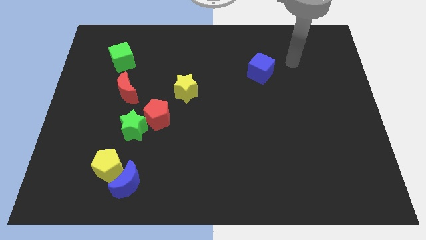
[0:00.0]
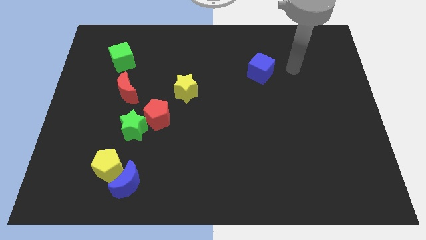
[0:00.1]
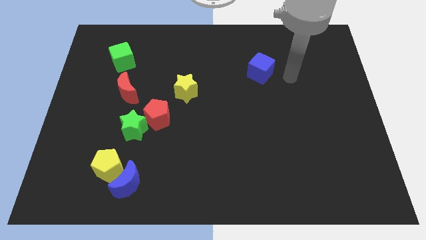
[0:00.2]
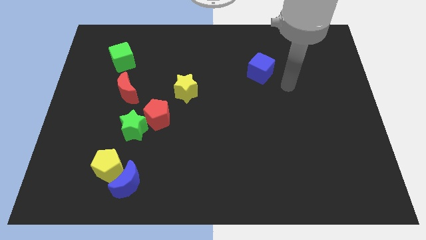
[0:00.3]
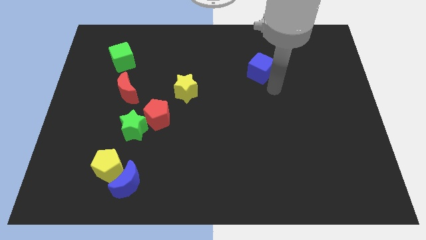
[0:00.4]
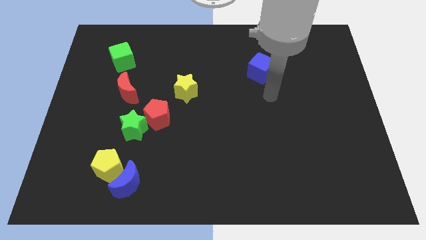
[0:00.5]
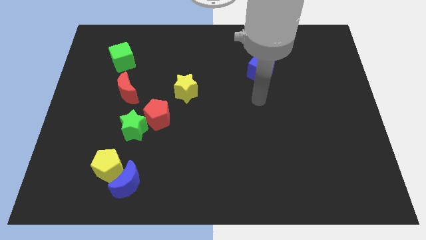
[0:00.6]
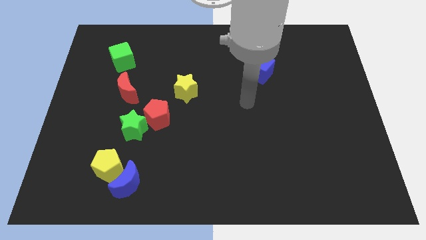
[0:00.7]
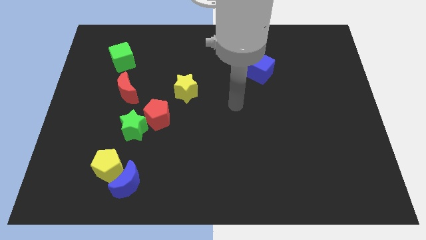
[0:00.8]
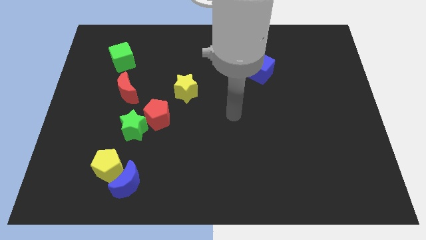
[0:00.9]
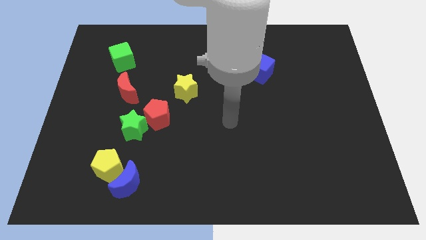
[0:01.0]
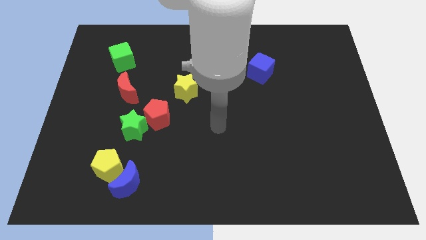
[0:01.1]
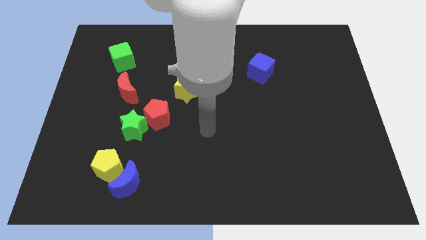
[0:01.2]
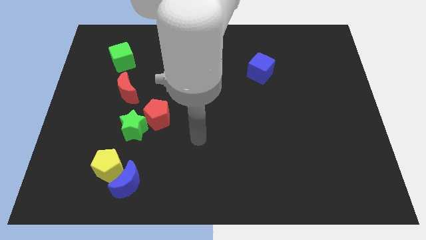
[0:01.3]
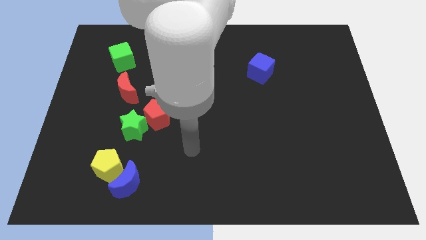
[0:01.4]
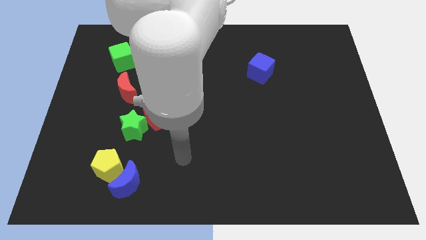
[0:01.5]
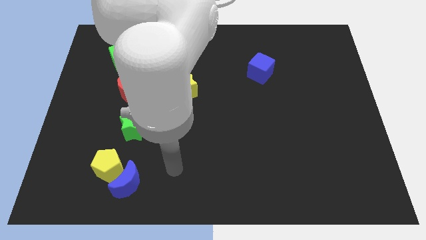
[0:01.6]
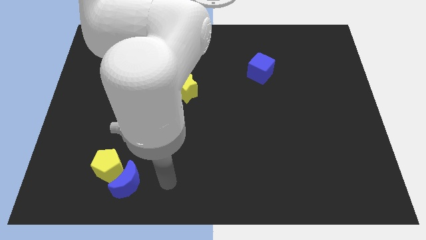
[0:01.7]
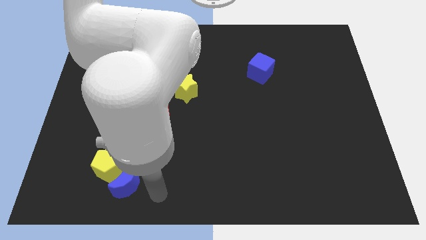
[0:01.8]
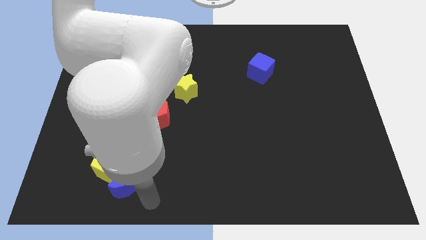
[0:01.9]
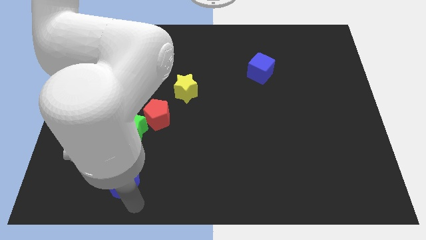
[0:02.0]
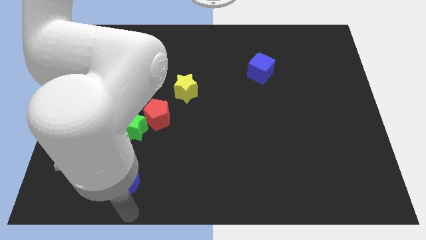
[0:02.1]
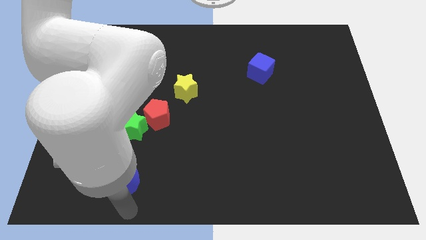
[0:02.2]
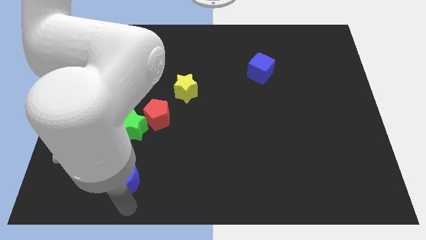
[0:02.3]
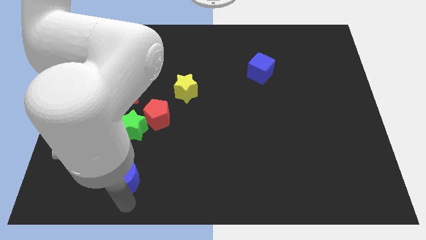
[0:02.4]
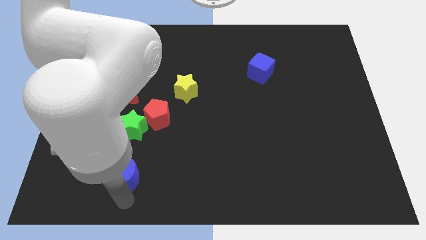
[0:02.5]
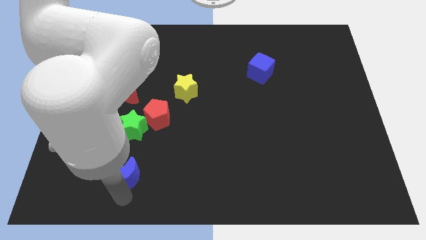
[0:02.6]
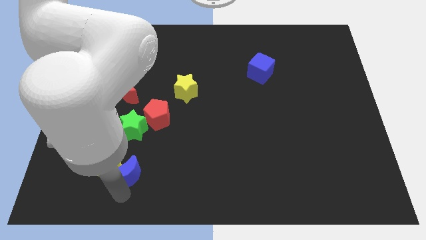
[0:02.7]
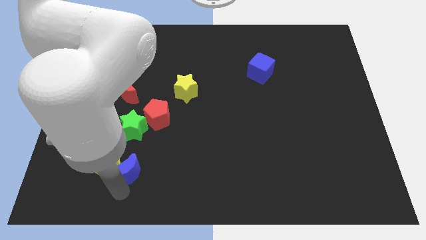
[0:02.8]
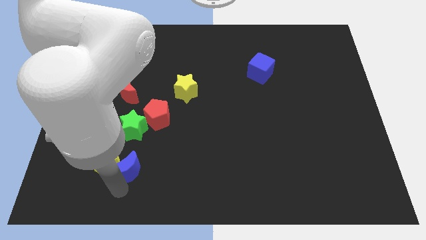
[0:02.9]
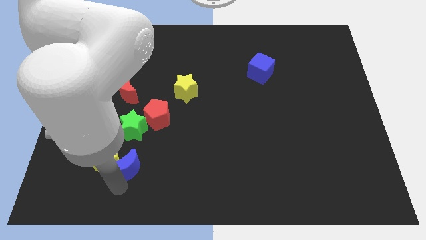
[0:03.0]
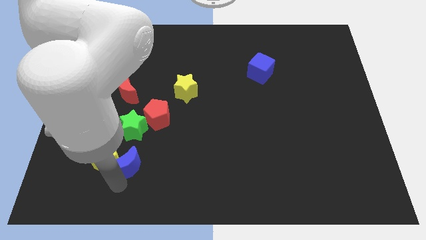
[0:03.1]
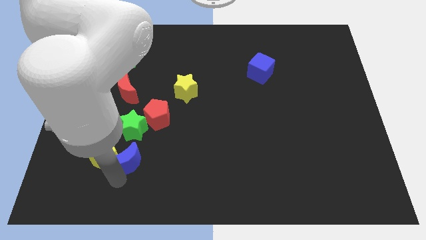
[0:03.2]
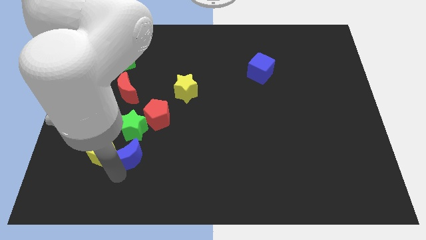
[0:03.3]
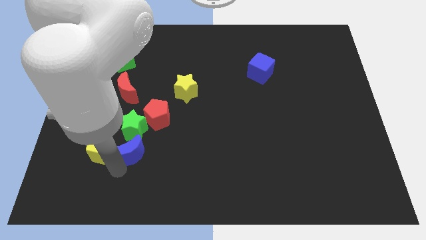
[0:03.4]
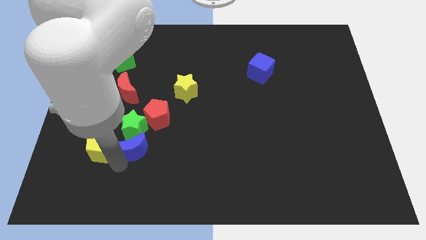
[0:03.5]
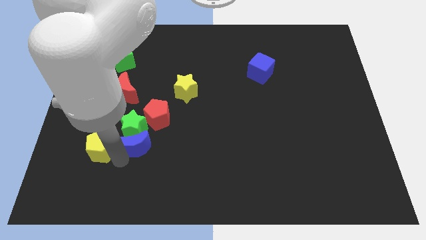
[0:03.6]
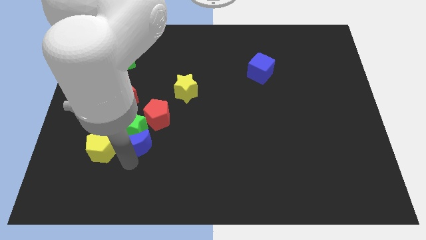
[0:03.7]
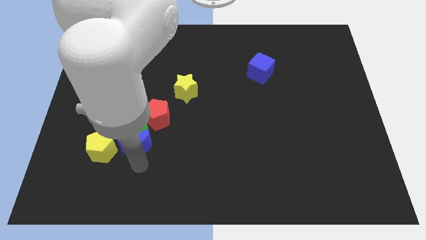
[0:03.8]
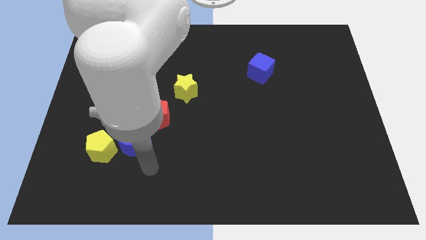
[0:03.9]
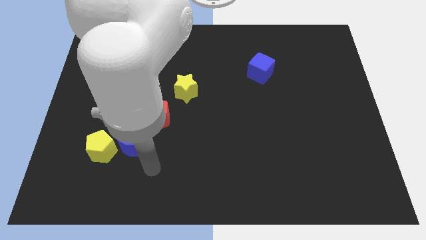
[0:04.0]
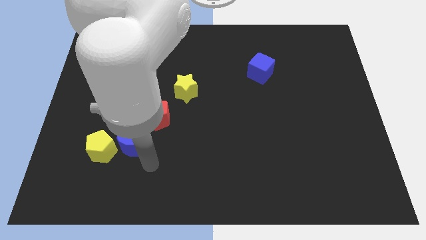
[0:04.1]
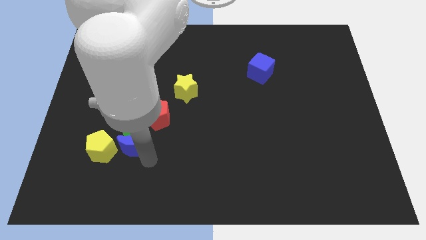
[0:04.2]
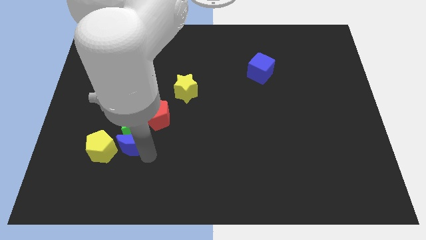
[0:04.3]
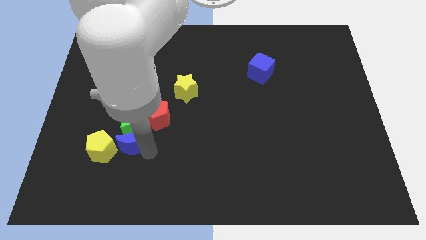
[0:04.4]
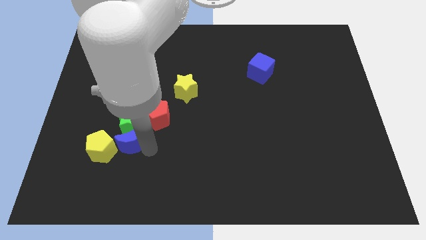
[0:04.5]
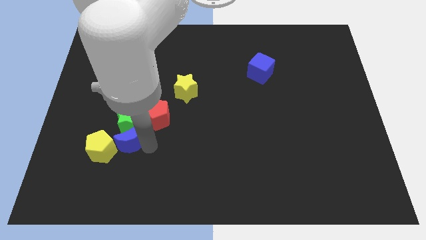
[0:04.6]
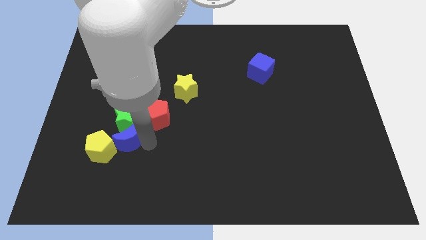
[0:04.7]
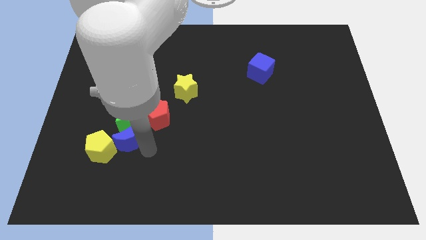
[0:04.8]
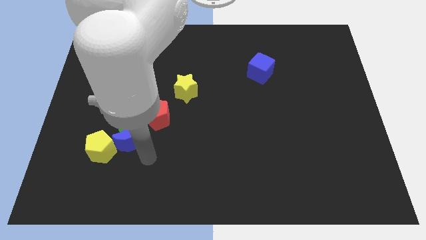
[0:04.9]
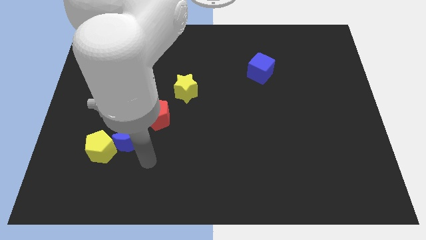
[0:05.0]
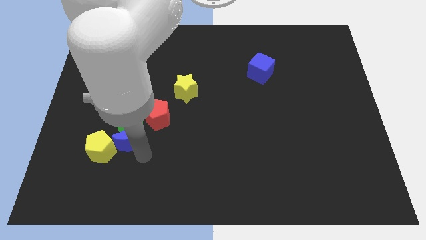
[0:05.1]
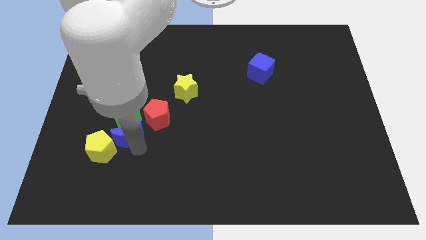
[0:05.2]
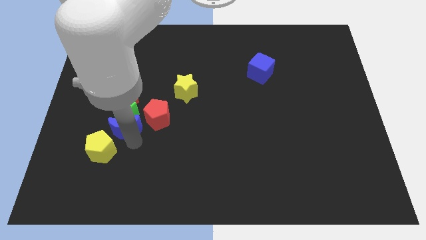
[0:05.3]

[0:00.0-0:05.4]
push the blue moon to the top of the yellow pentagon

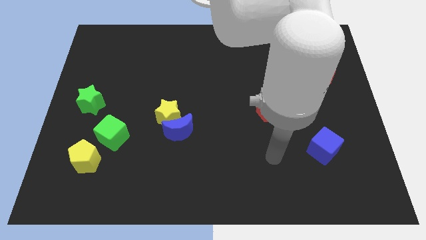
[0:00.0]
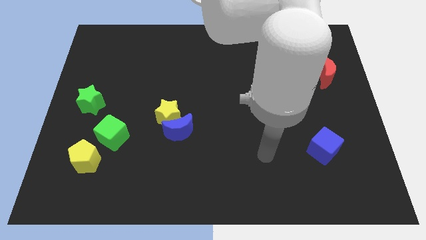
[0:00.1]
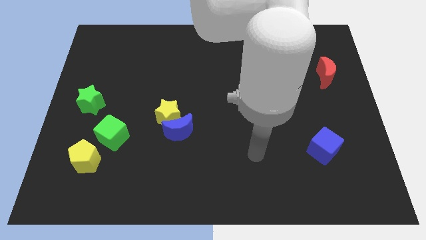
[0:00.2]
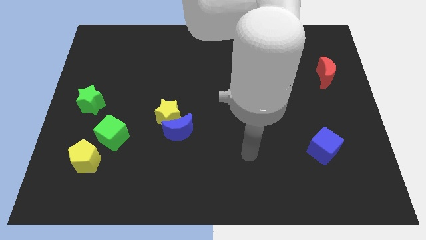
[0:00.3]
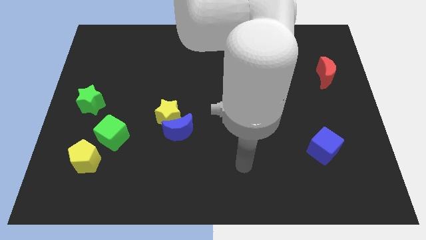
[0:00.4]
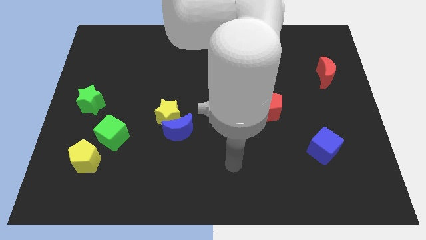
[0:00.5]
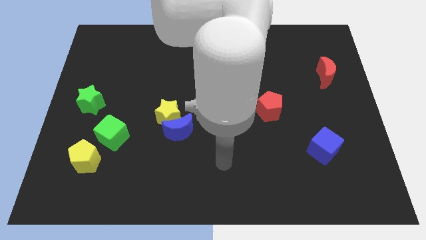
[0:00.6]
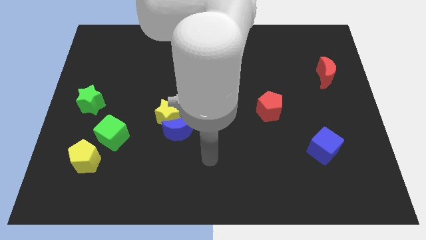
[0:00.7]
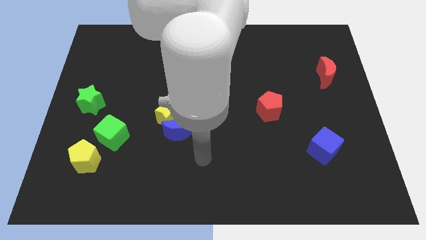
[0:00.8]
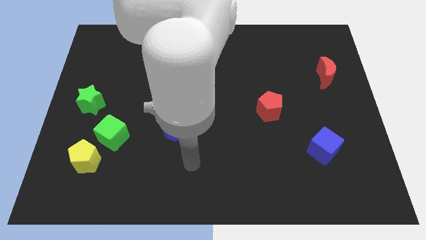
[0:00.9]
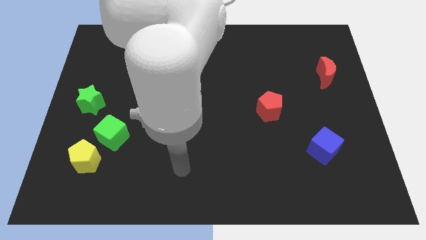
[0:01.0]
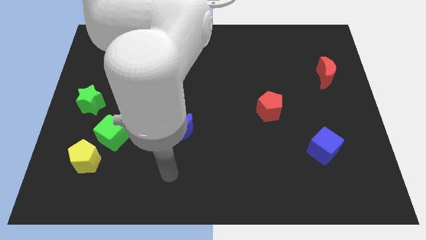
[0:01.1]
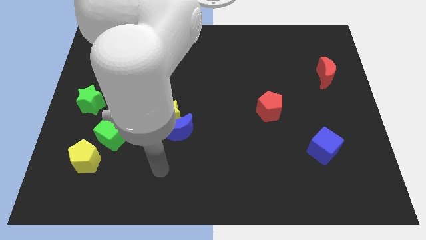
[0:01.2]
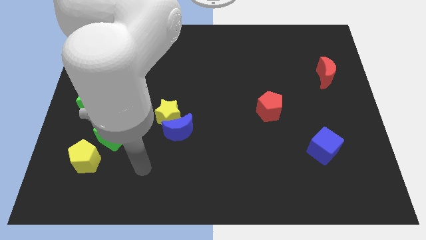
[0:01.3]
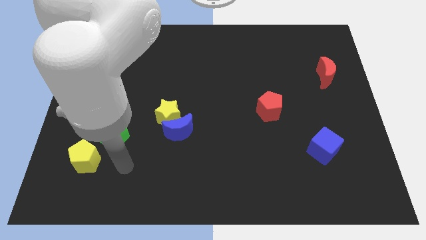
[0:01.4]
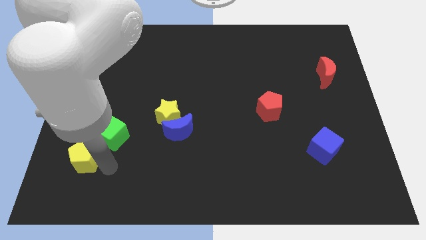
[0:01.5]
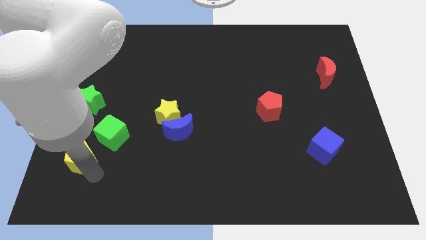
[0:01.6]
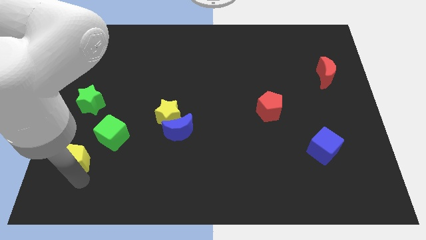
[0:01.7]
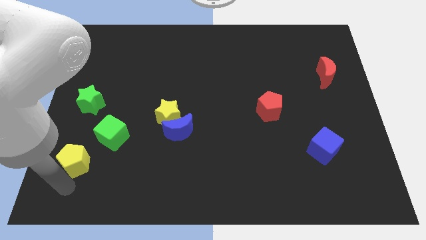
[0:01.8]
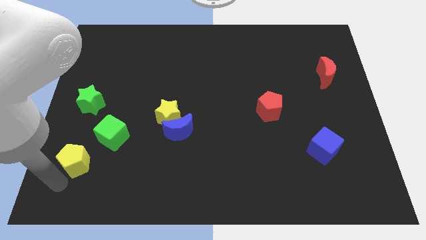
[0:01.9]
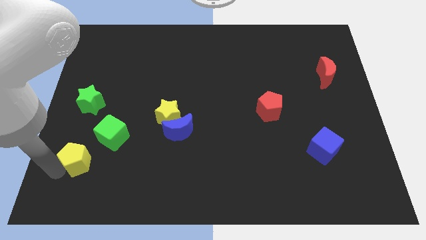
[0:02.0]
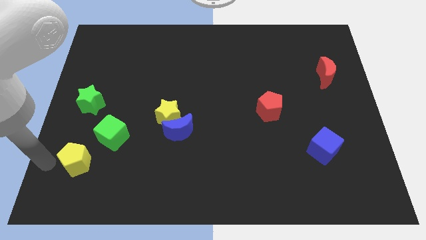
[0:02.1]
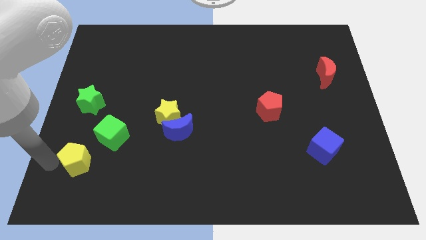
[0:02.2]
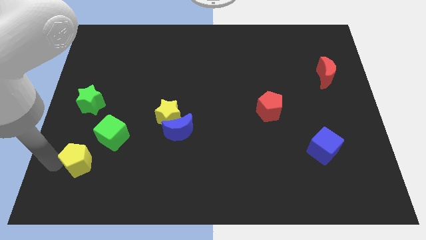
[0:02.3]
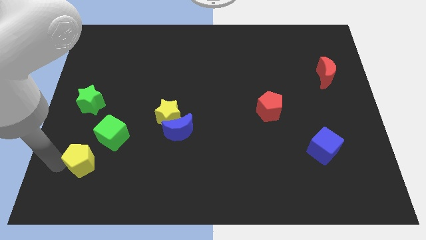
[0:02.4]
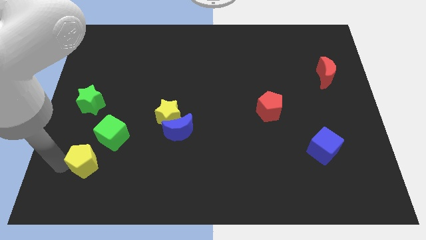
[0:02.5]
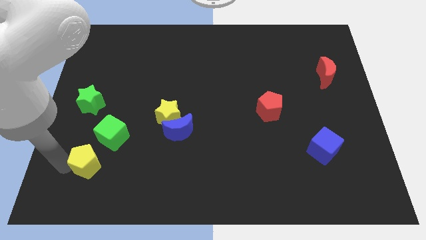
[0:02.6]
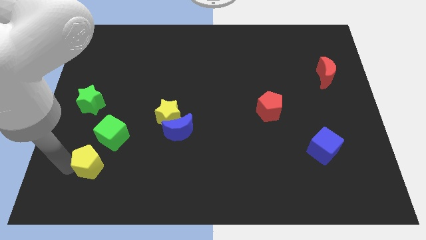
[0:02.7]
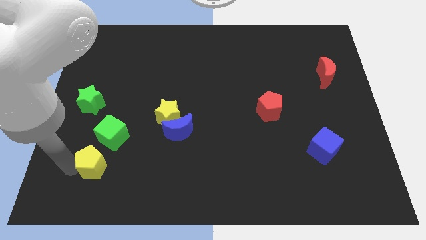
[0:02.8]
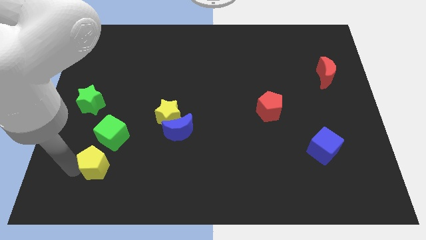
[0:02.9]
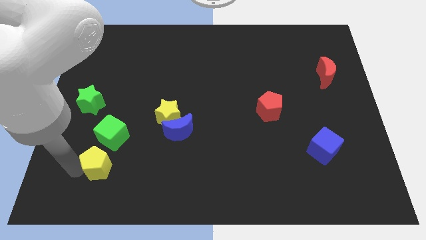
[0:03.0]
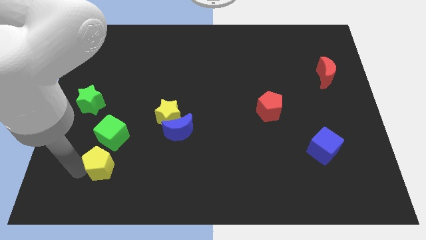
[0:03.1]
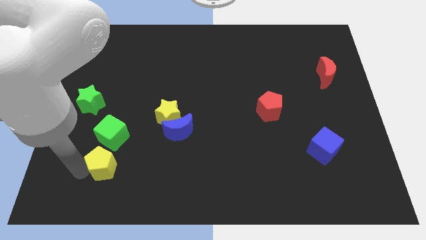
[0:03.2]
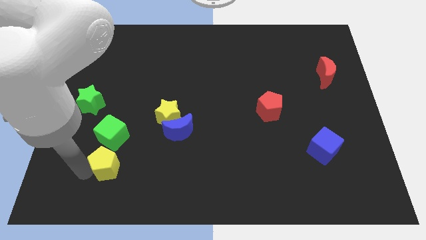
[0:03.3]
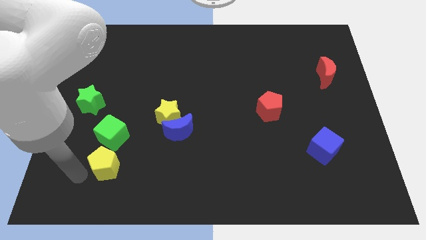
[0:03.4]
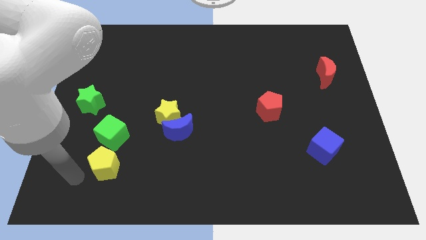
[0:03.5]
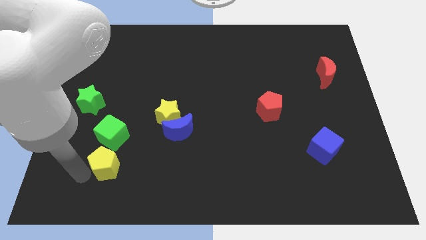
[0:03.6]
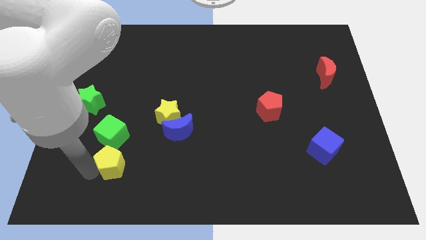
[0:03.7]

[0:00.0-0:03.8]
slide the yellow pentagon to the bottom right side of the green cube
